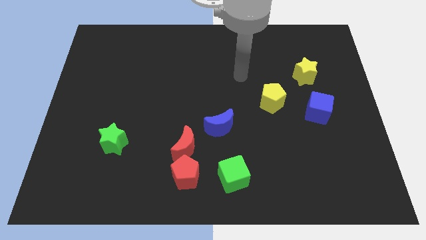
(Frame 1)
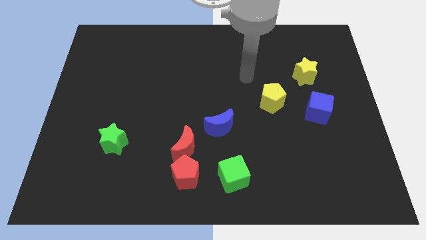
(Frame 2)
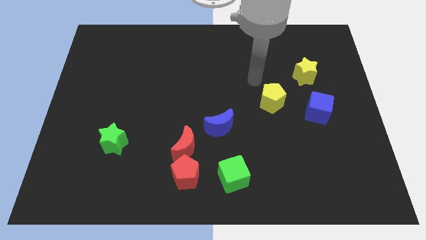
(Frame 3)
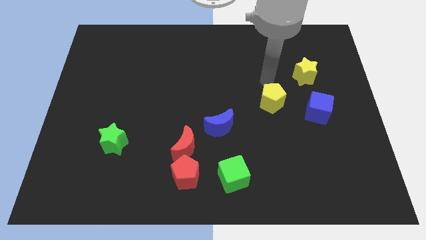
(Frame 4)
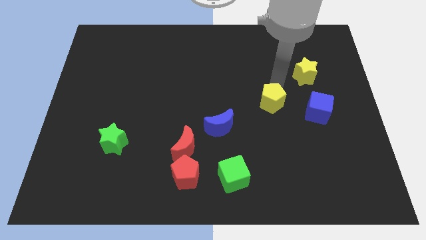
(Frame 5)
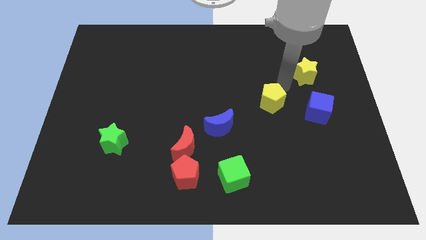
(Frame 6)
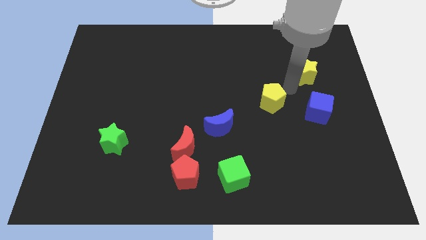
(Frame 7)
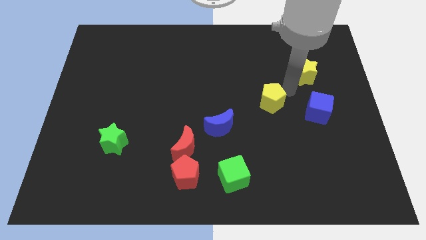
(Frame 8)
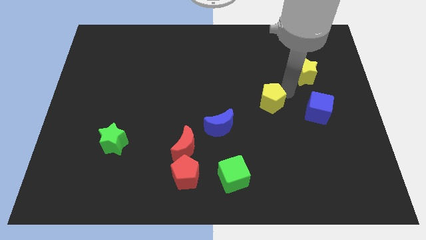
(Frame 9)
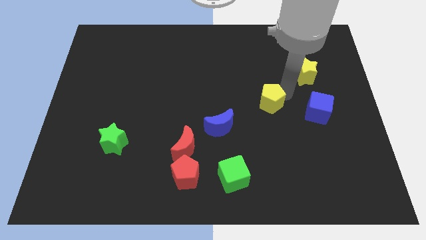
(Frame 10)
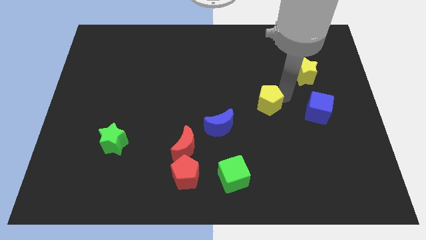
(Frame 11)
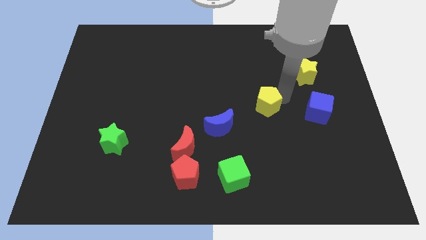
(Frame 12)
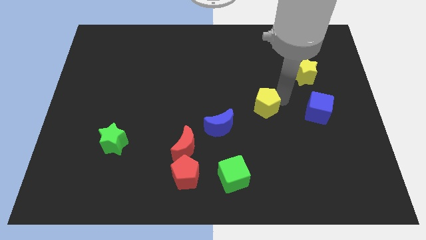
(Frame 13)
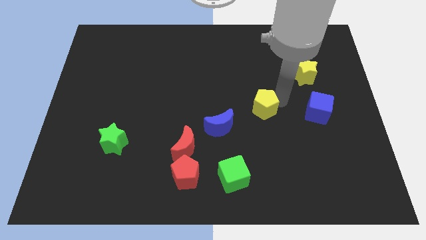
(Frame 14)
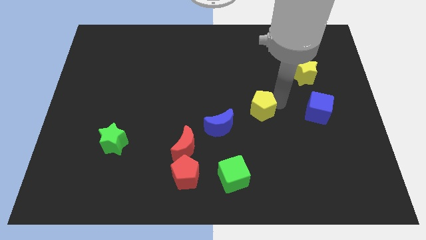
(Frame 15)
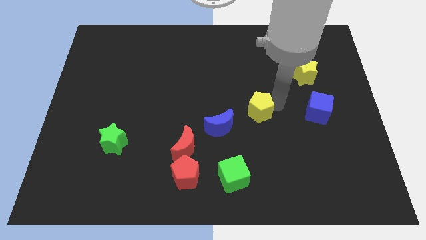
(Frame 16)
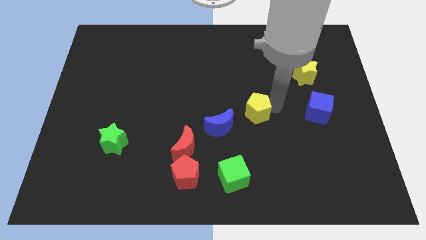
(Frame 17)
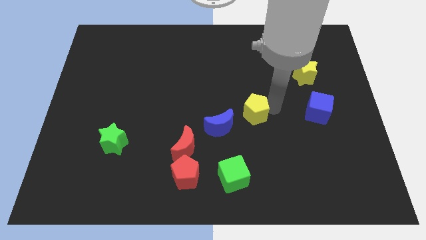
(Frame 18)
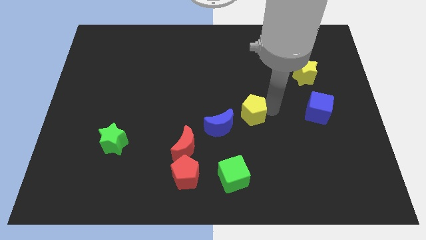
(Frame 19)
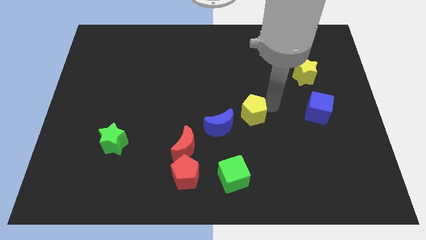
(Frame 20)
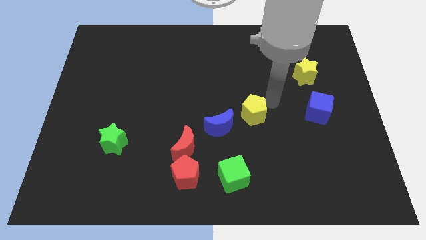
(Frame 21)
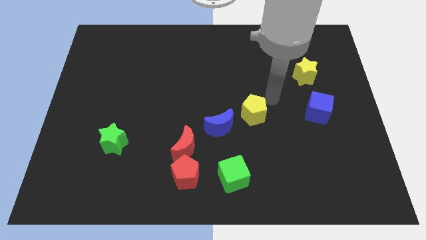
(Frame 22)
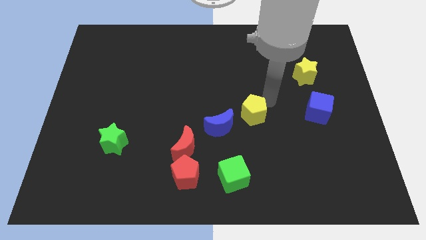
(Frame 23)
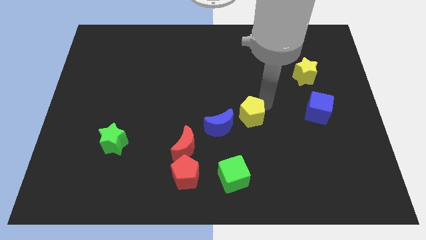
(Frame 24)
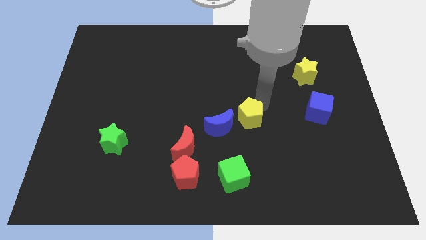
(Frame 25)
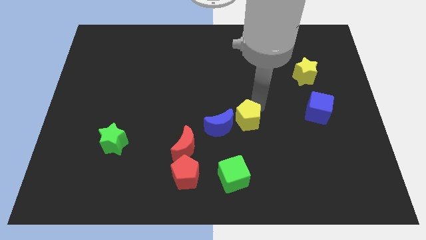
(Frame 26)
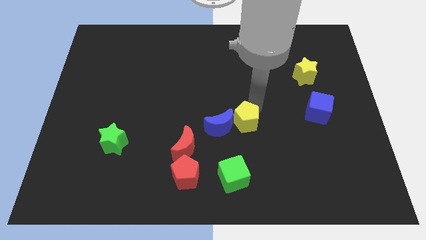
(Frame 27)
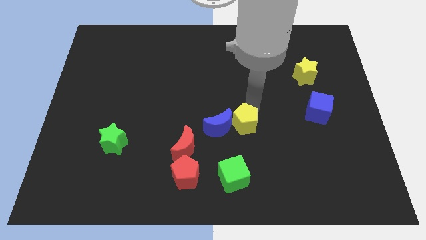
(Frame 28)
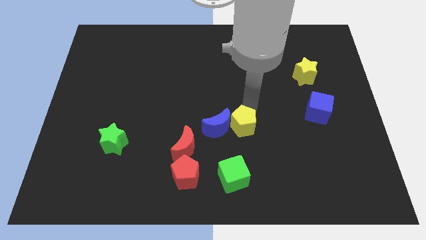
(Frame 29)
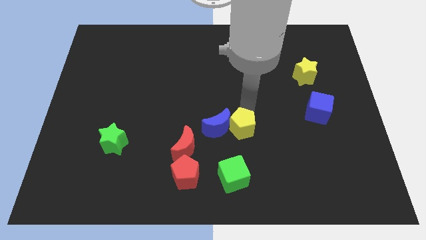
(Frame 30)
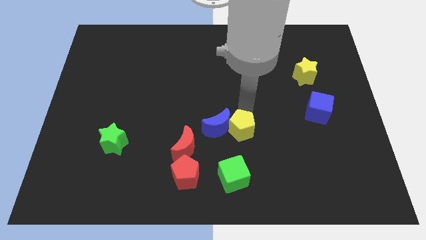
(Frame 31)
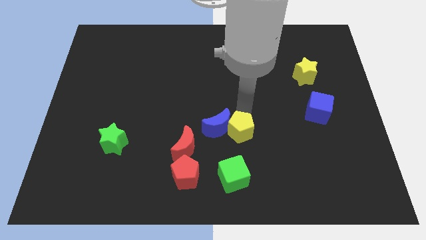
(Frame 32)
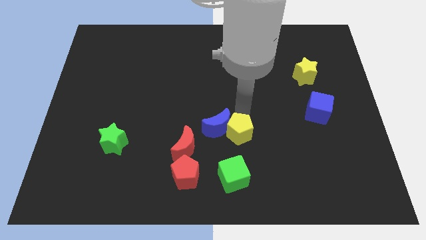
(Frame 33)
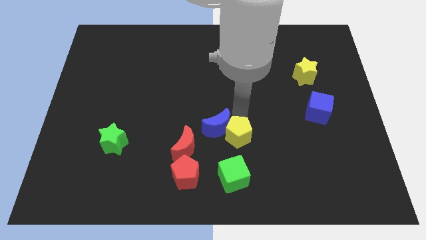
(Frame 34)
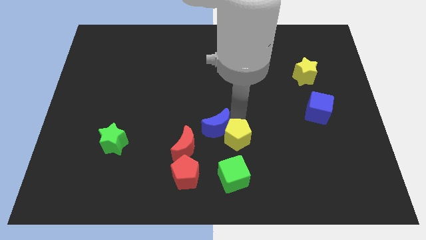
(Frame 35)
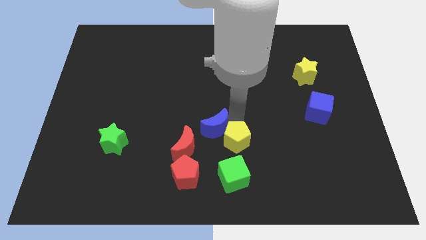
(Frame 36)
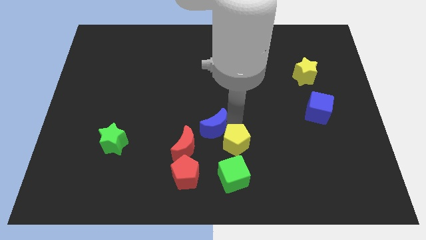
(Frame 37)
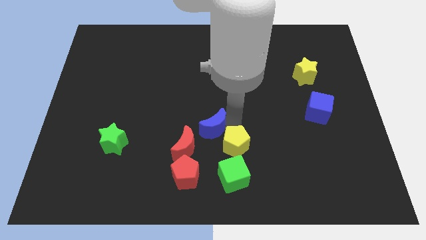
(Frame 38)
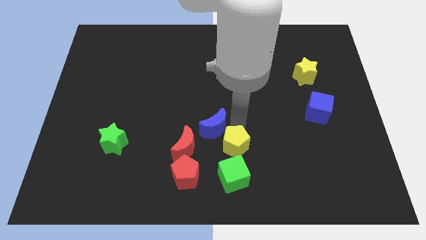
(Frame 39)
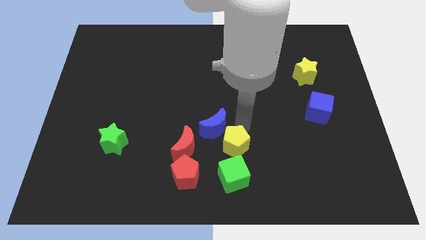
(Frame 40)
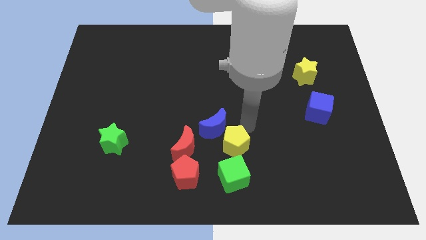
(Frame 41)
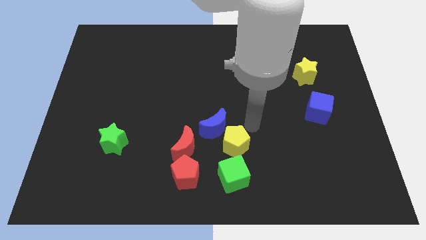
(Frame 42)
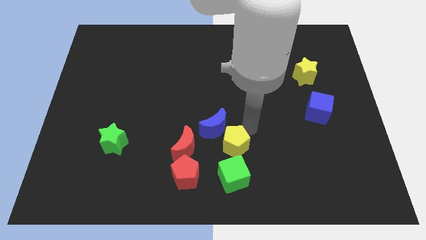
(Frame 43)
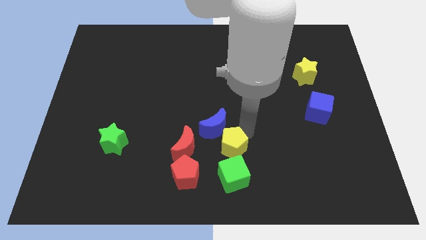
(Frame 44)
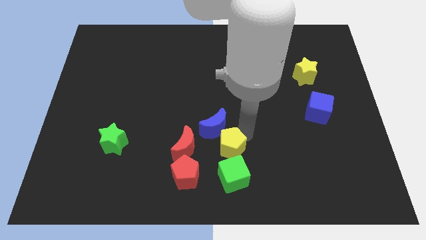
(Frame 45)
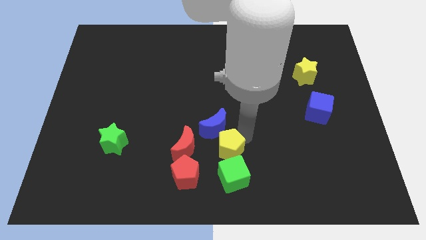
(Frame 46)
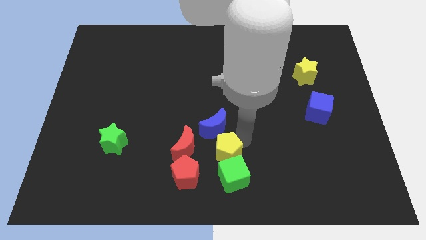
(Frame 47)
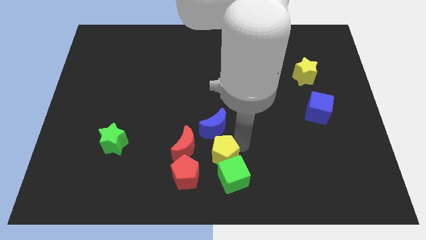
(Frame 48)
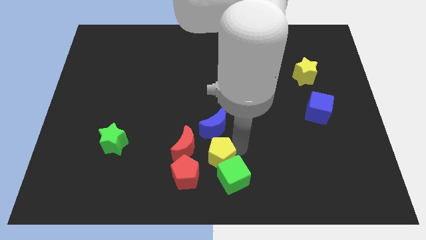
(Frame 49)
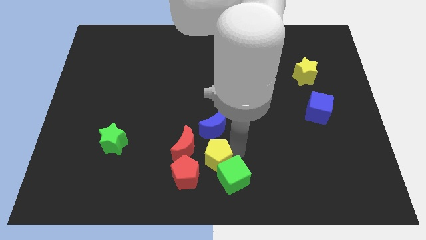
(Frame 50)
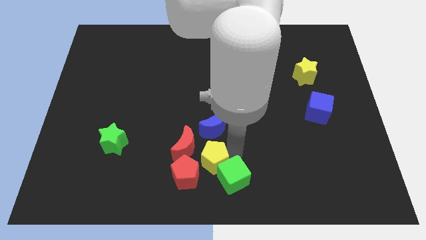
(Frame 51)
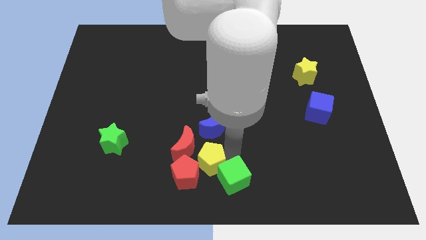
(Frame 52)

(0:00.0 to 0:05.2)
move the yellow pentagon to the red pentagon

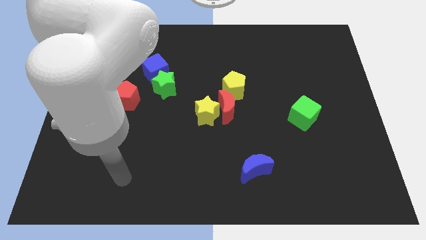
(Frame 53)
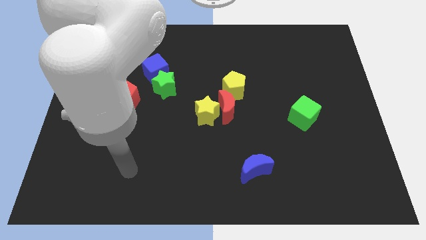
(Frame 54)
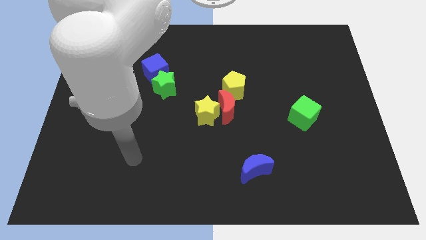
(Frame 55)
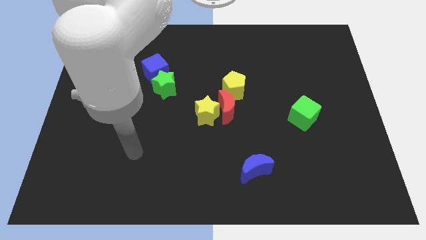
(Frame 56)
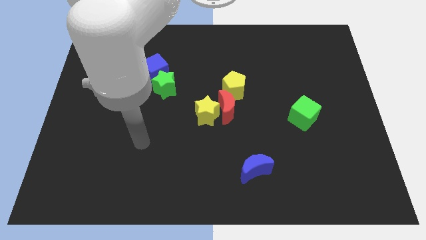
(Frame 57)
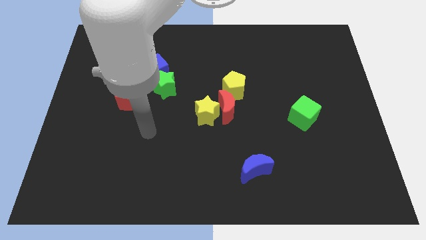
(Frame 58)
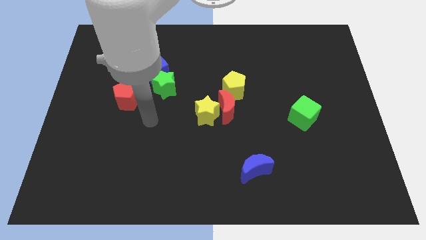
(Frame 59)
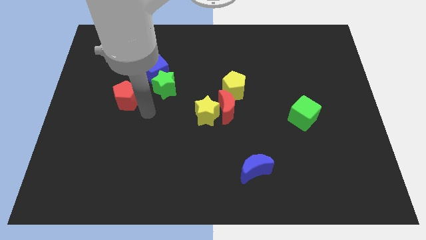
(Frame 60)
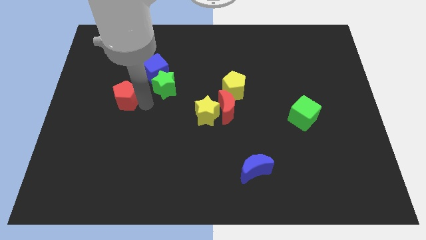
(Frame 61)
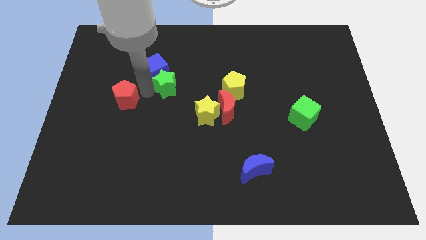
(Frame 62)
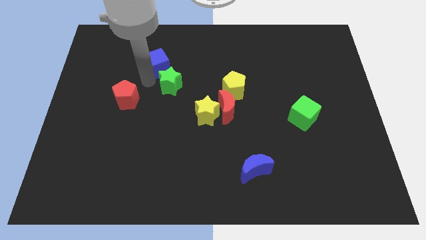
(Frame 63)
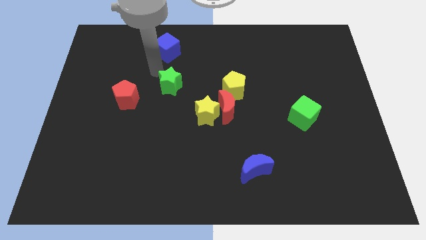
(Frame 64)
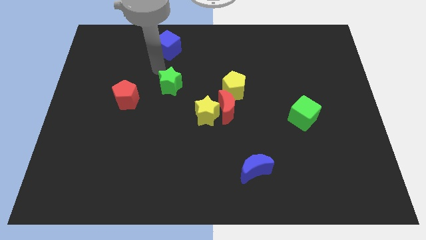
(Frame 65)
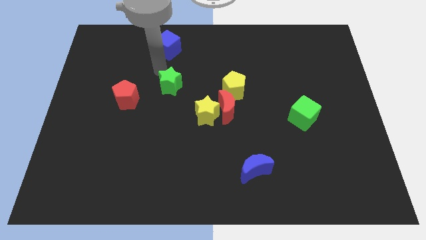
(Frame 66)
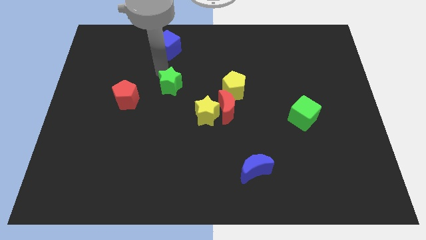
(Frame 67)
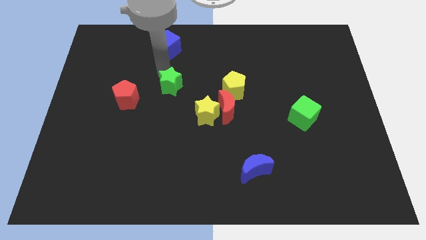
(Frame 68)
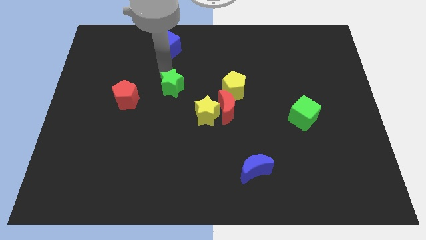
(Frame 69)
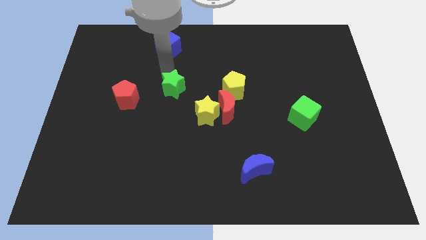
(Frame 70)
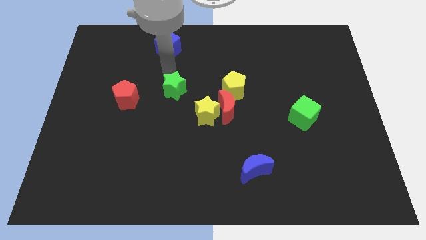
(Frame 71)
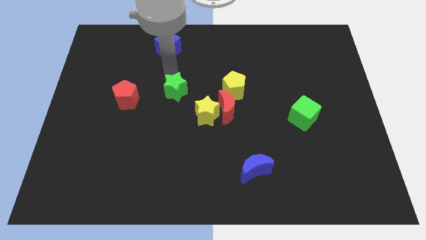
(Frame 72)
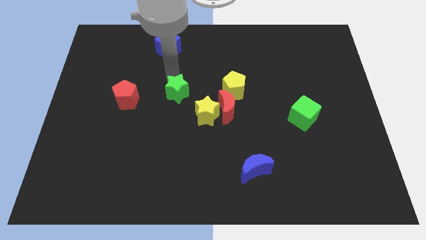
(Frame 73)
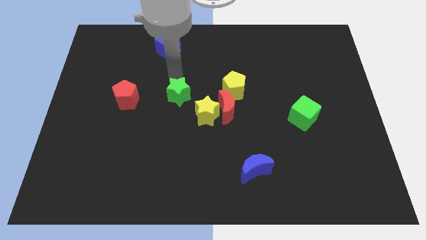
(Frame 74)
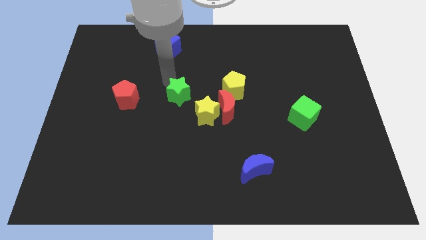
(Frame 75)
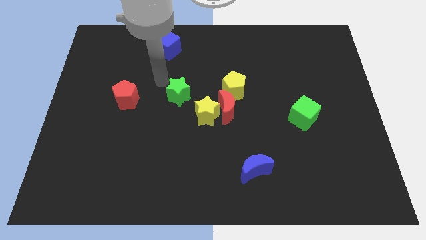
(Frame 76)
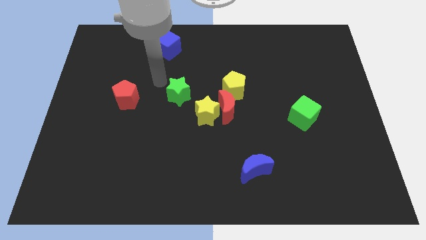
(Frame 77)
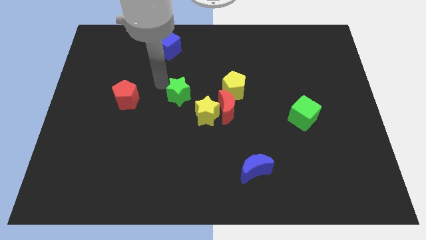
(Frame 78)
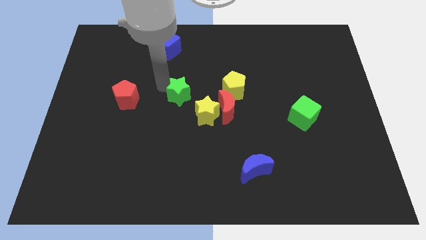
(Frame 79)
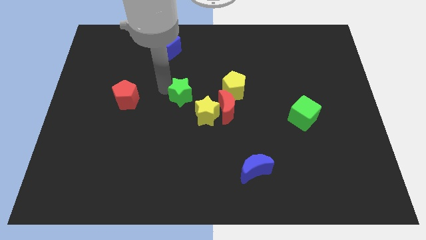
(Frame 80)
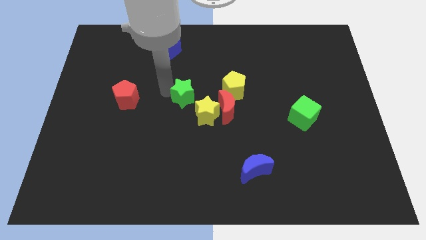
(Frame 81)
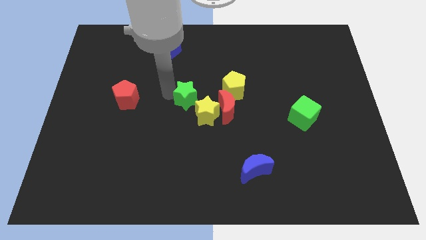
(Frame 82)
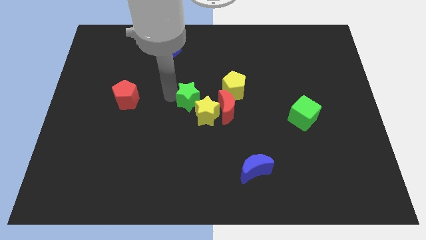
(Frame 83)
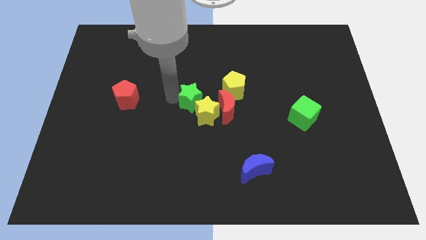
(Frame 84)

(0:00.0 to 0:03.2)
move the green star towards the yellow star
